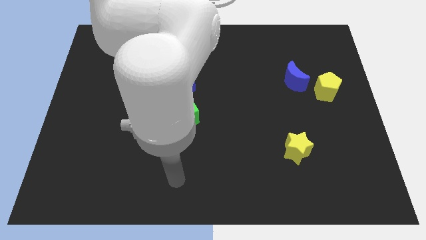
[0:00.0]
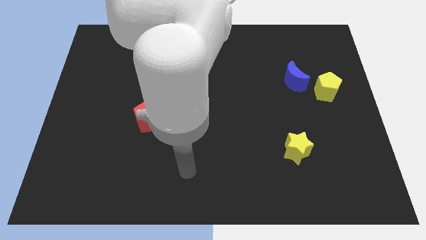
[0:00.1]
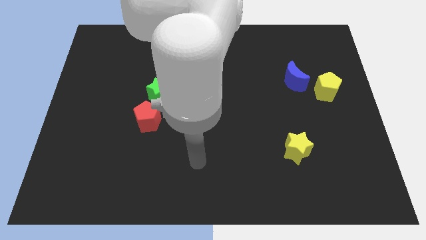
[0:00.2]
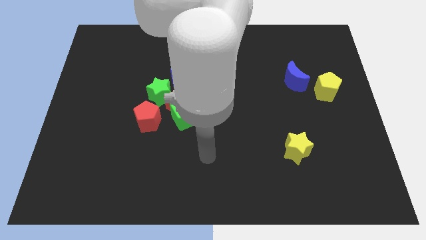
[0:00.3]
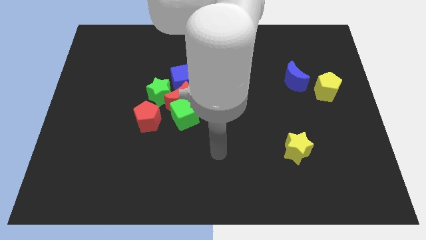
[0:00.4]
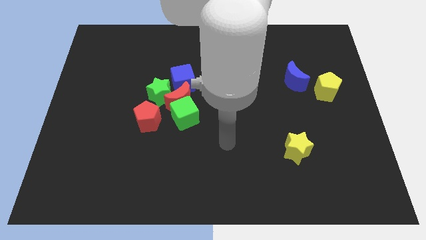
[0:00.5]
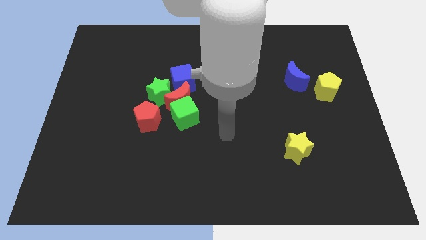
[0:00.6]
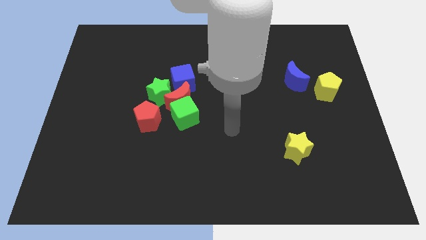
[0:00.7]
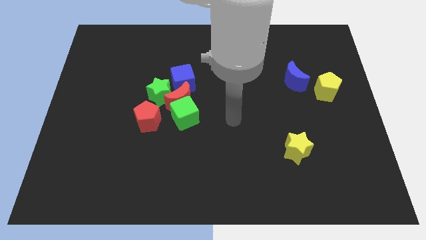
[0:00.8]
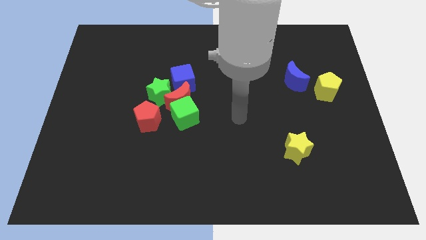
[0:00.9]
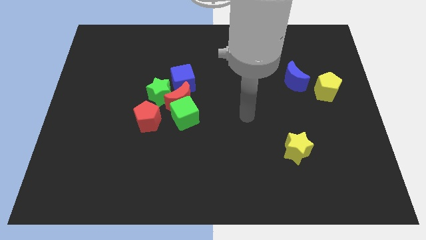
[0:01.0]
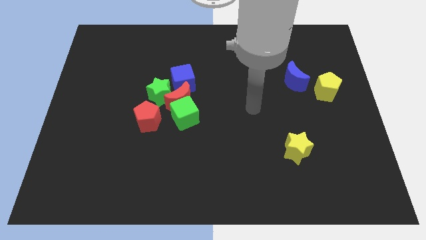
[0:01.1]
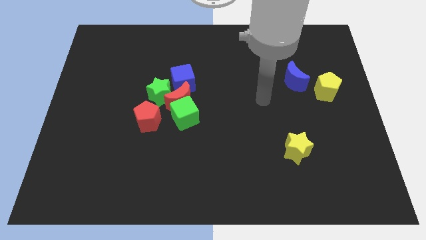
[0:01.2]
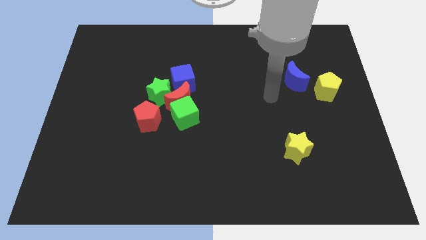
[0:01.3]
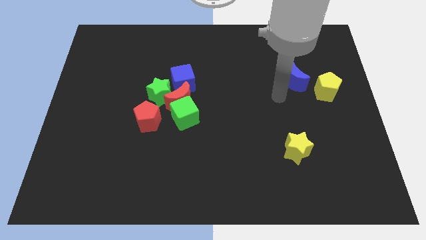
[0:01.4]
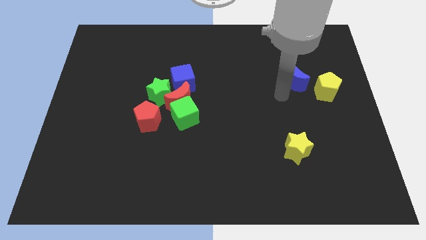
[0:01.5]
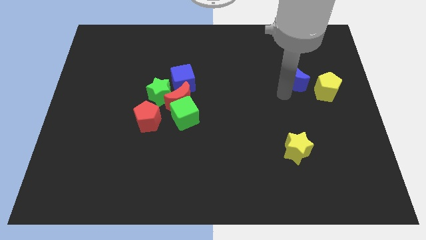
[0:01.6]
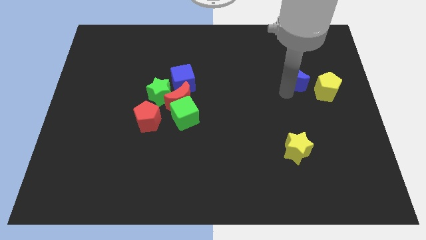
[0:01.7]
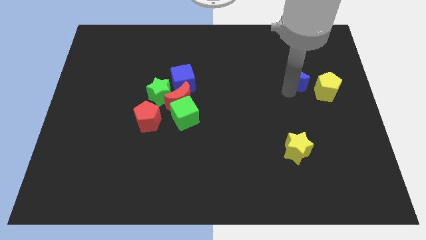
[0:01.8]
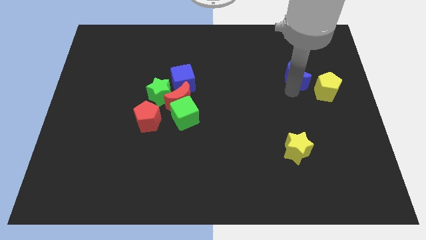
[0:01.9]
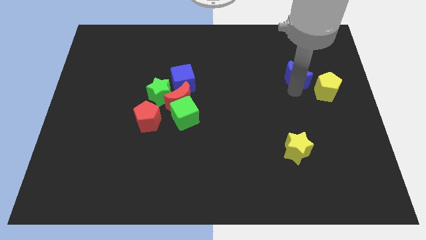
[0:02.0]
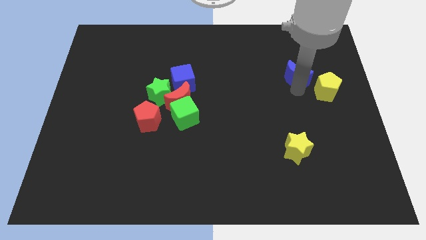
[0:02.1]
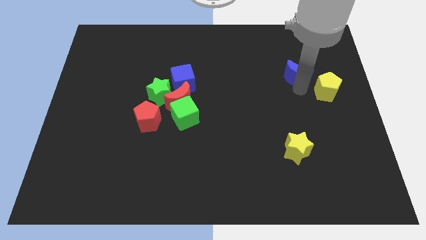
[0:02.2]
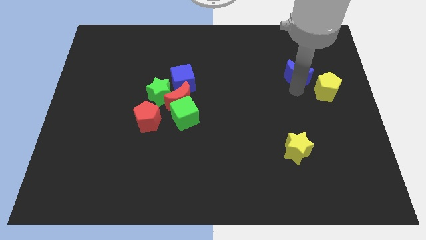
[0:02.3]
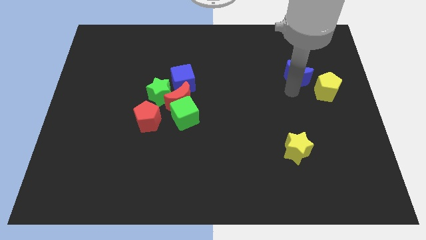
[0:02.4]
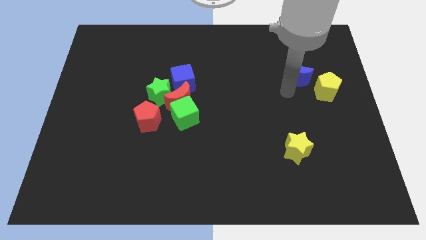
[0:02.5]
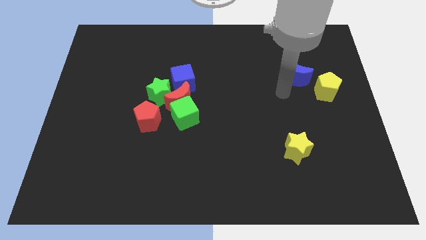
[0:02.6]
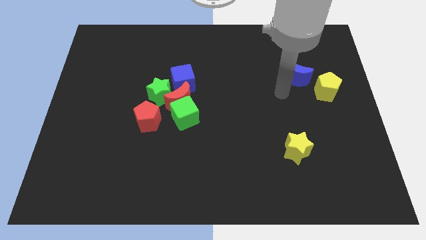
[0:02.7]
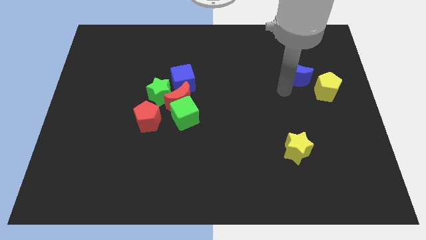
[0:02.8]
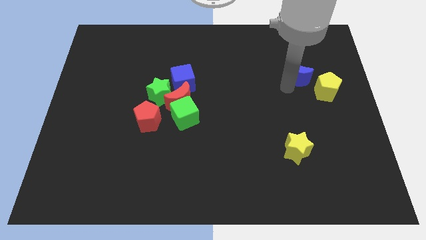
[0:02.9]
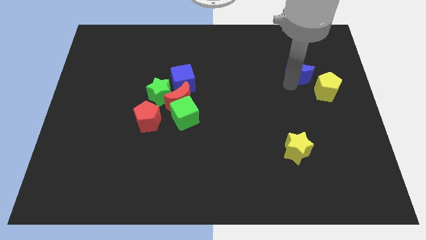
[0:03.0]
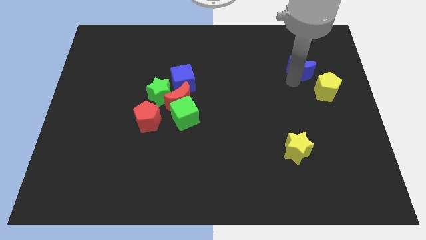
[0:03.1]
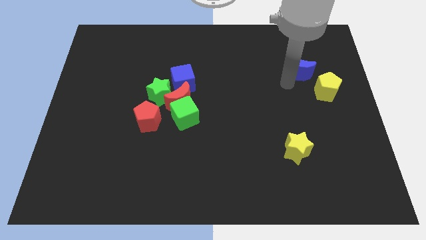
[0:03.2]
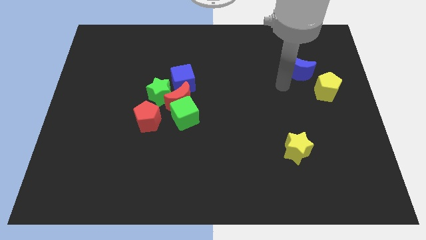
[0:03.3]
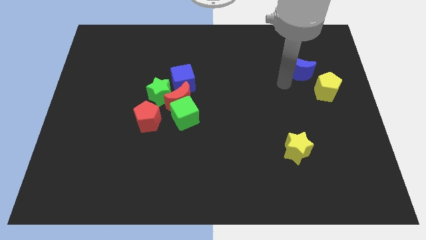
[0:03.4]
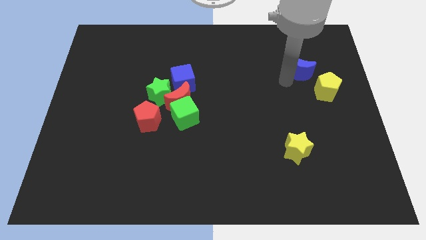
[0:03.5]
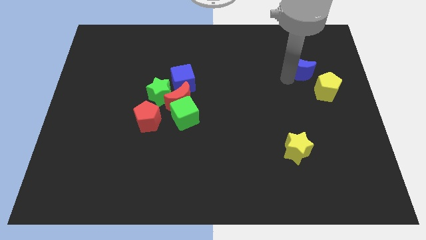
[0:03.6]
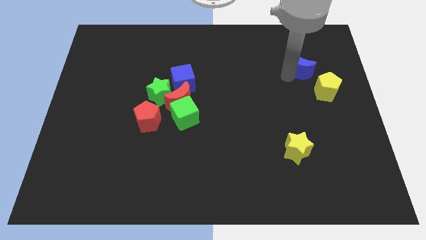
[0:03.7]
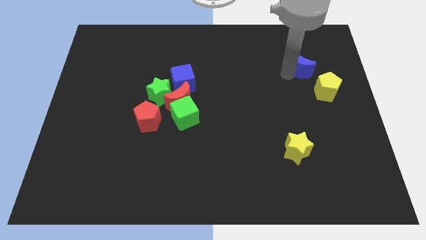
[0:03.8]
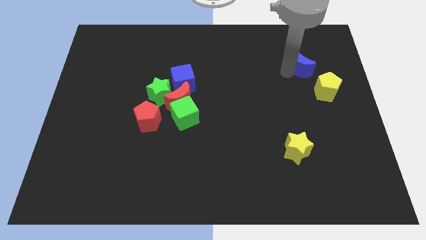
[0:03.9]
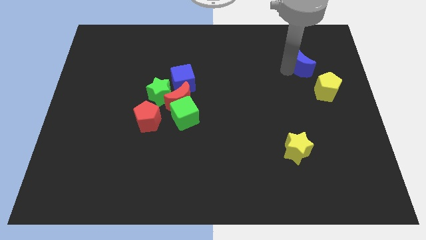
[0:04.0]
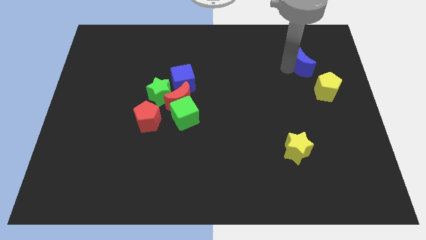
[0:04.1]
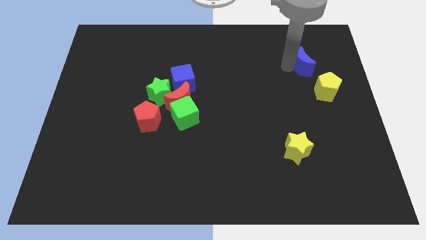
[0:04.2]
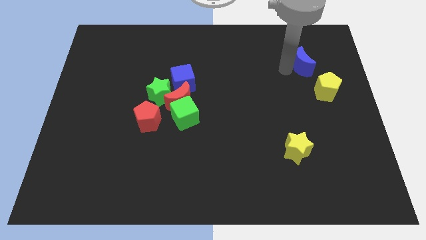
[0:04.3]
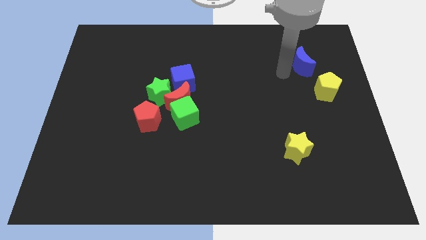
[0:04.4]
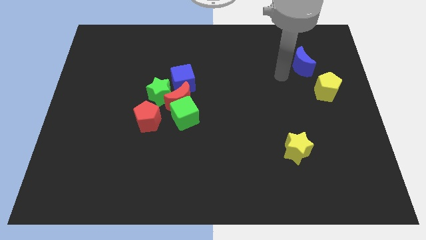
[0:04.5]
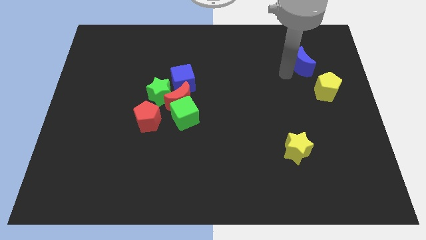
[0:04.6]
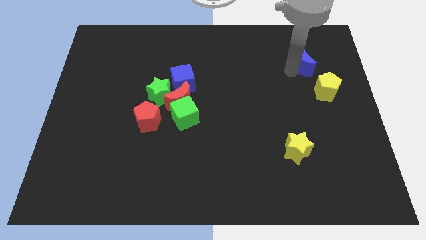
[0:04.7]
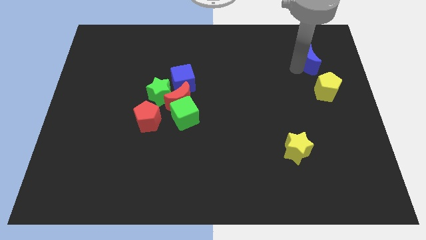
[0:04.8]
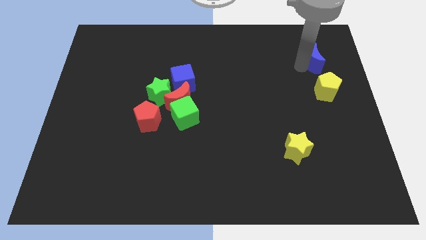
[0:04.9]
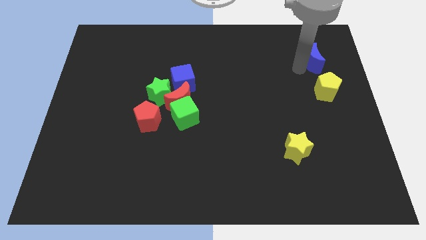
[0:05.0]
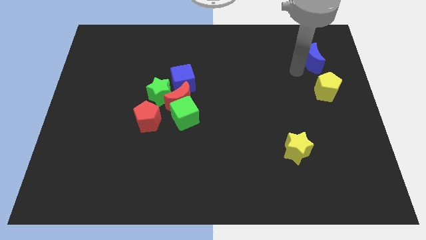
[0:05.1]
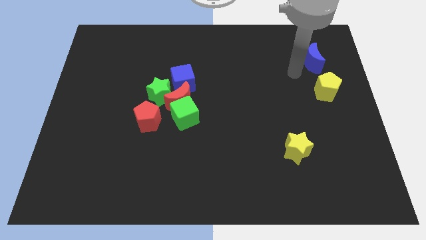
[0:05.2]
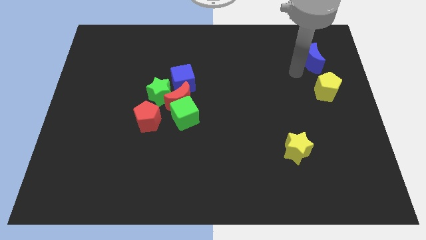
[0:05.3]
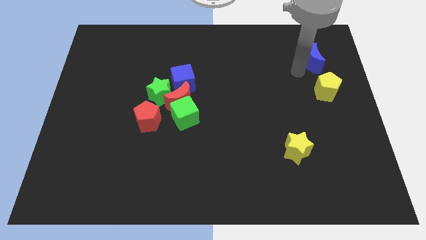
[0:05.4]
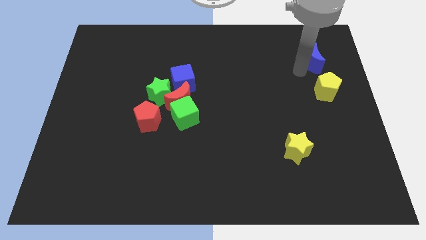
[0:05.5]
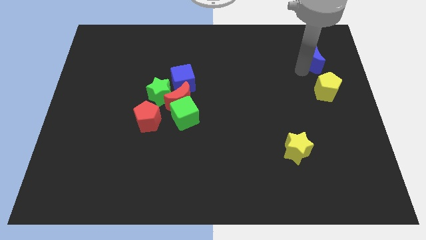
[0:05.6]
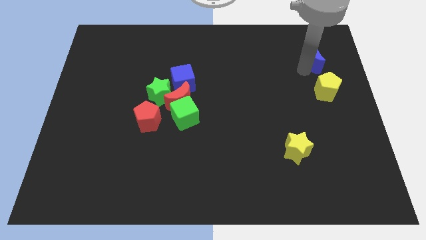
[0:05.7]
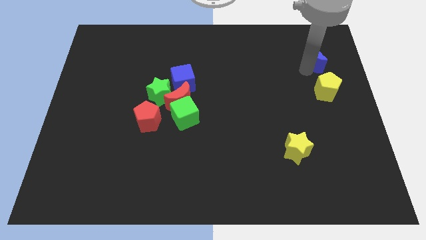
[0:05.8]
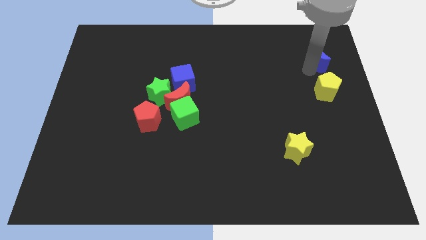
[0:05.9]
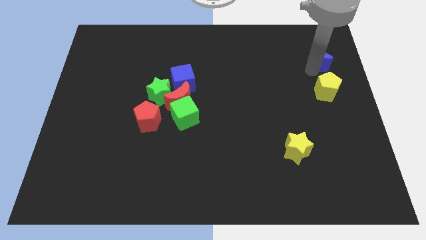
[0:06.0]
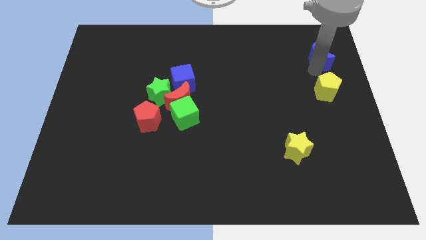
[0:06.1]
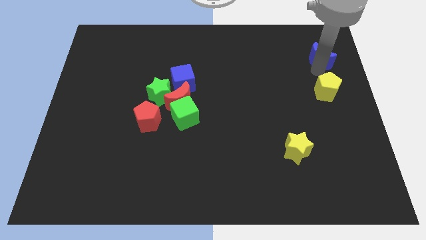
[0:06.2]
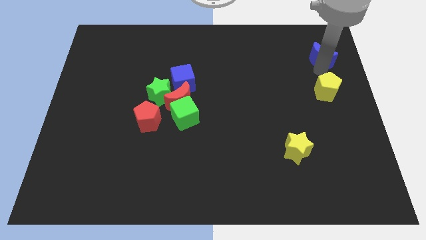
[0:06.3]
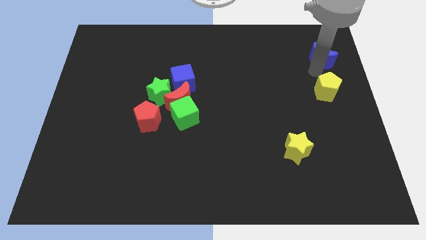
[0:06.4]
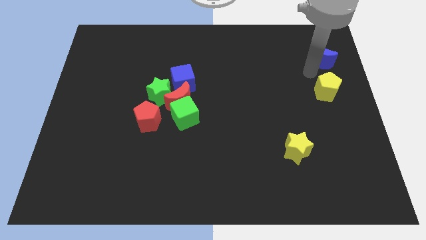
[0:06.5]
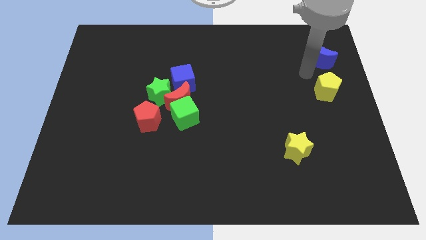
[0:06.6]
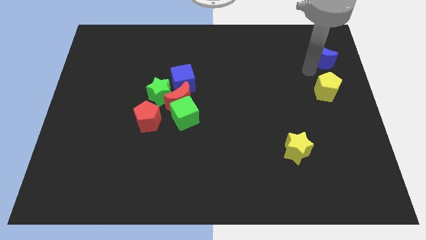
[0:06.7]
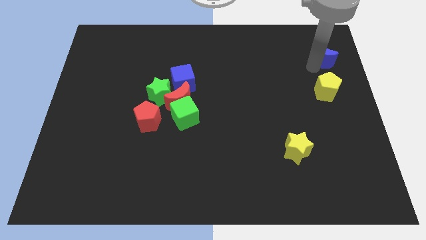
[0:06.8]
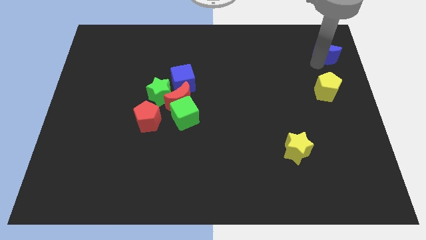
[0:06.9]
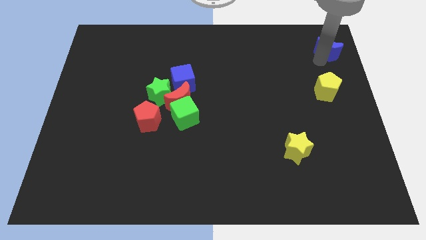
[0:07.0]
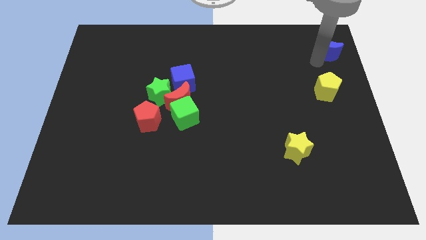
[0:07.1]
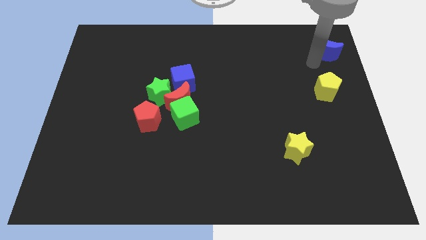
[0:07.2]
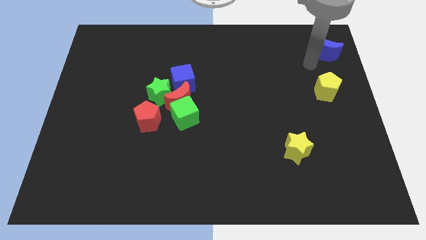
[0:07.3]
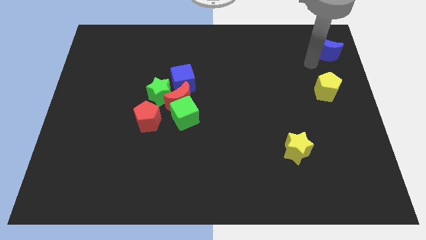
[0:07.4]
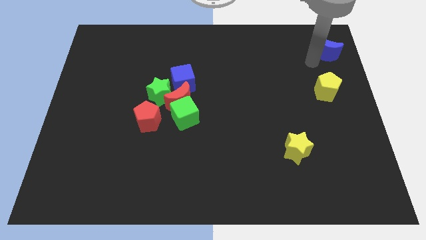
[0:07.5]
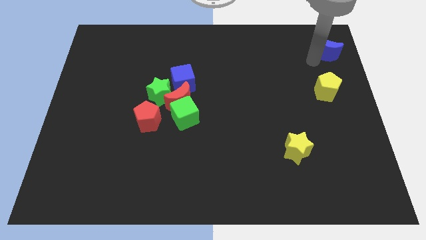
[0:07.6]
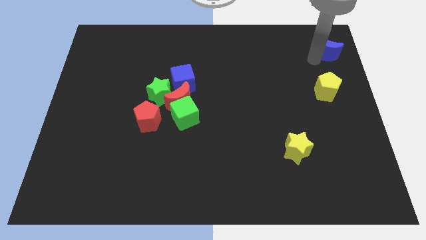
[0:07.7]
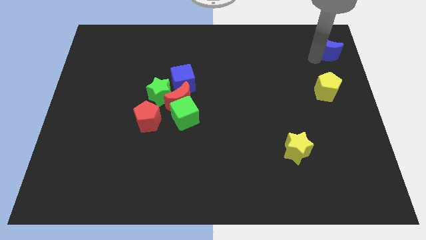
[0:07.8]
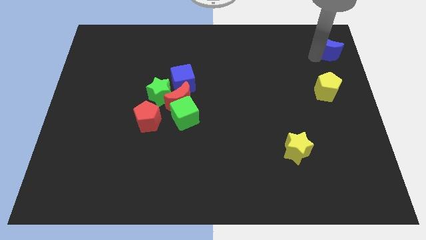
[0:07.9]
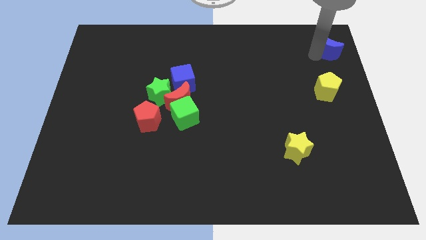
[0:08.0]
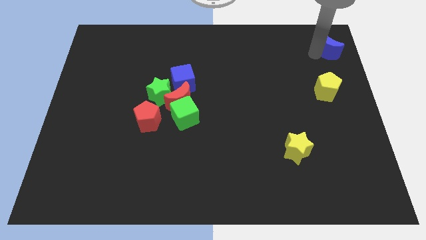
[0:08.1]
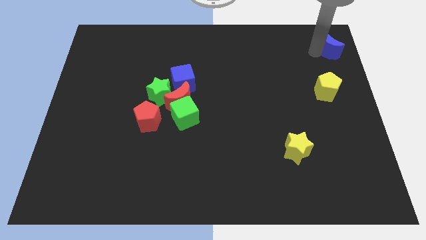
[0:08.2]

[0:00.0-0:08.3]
put the blue moon to the top right of the board
